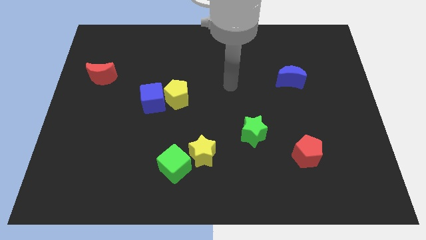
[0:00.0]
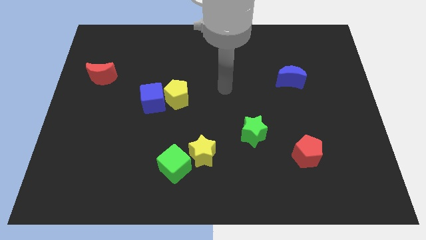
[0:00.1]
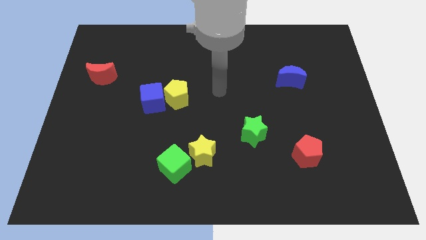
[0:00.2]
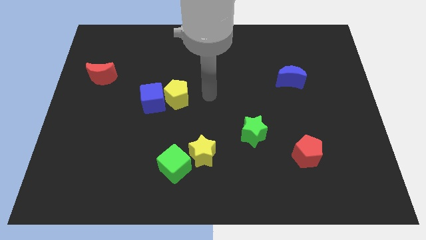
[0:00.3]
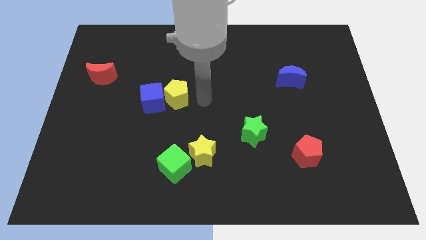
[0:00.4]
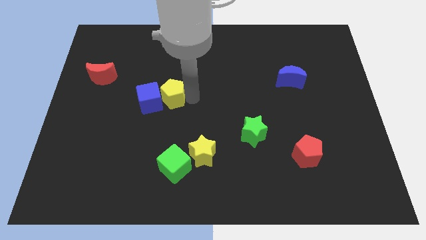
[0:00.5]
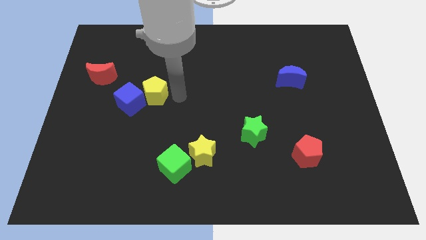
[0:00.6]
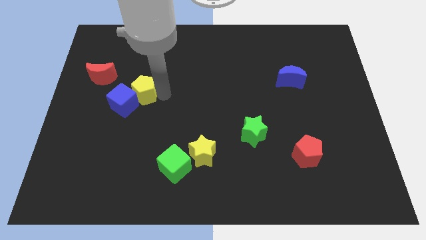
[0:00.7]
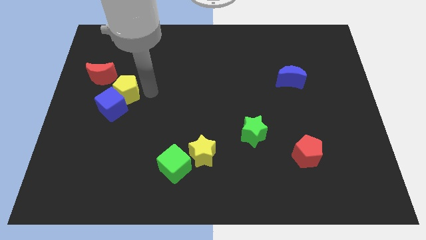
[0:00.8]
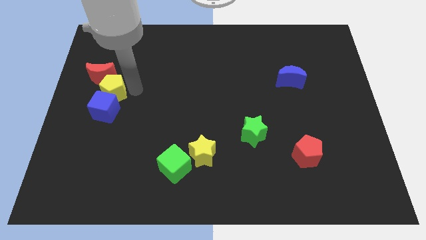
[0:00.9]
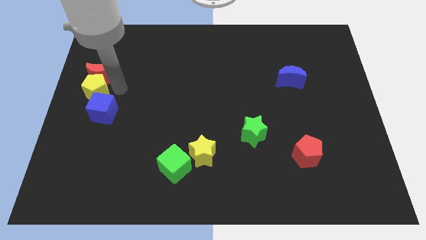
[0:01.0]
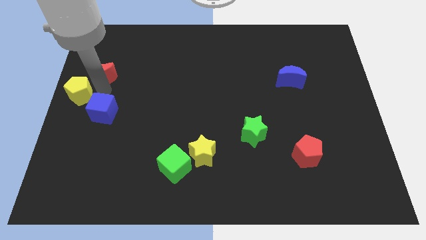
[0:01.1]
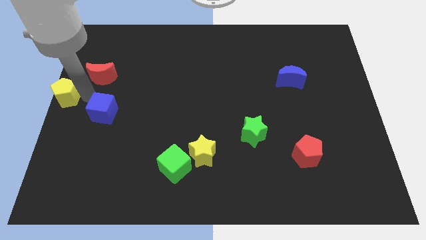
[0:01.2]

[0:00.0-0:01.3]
move the blue cube away from the yellow pentagon

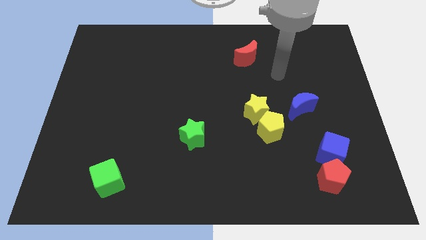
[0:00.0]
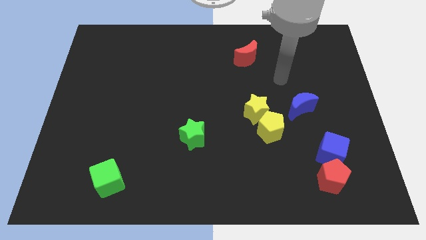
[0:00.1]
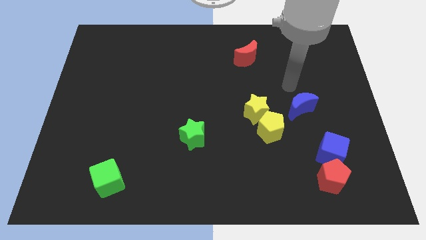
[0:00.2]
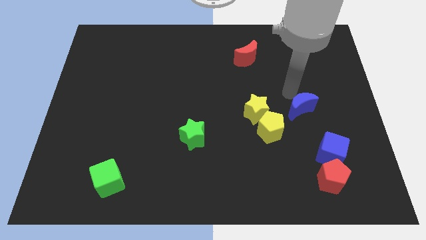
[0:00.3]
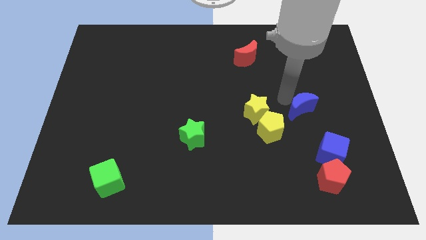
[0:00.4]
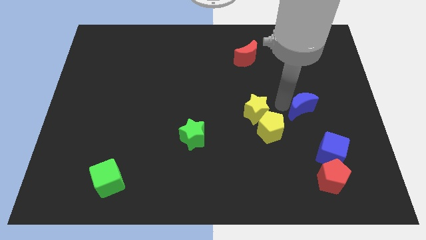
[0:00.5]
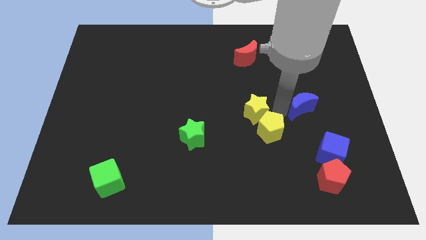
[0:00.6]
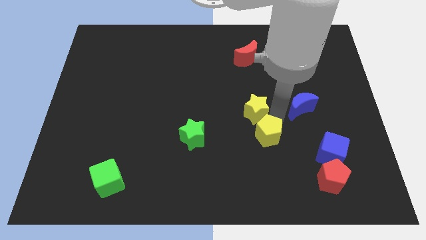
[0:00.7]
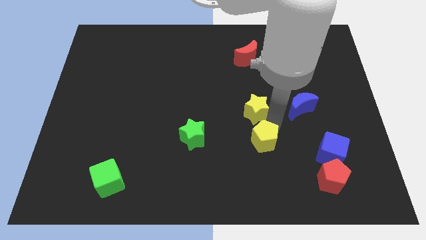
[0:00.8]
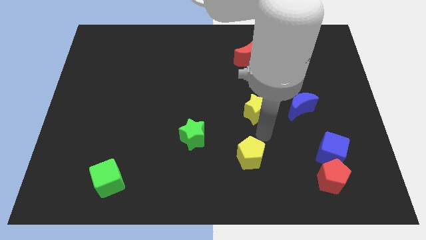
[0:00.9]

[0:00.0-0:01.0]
pull the yellow star apart from the yellow pentagon

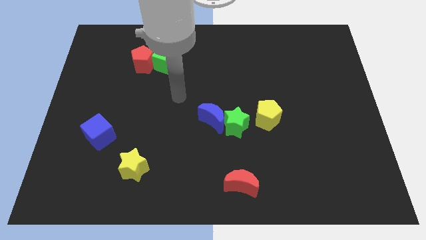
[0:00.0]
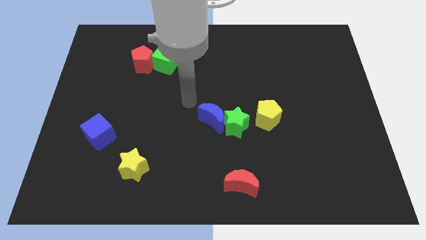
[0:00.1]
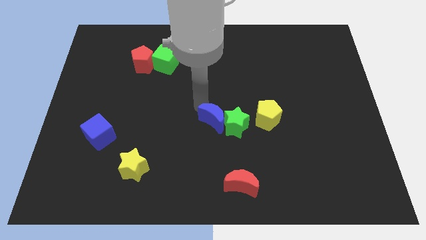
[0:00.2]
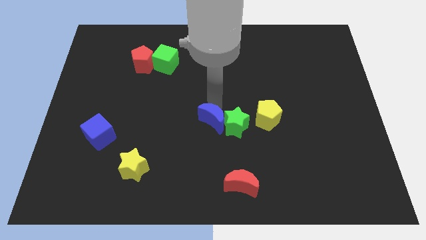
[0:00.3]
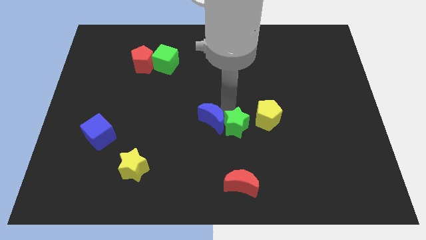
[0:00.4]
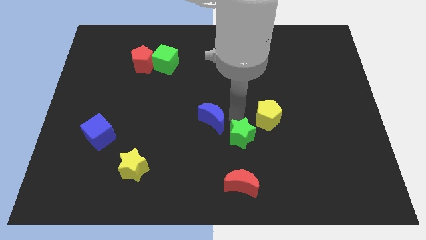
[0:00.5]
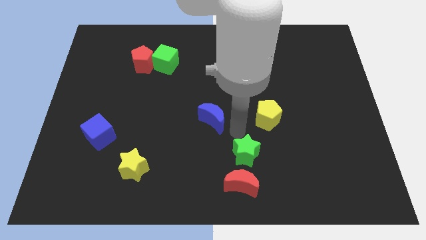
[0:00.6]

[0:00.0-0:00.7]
pull the blue moon apart from the green star

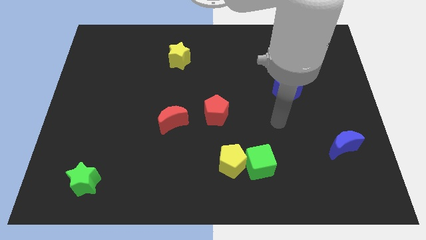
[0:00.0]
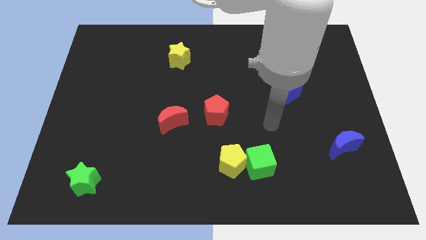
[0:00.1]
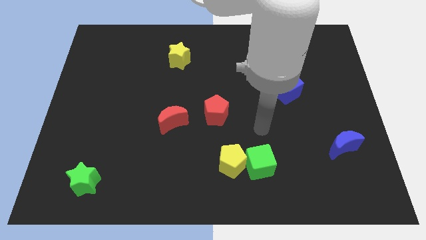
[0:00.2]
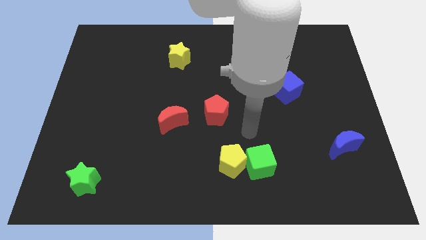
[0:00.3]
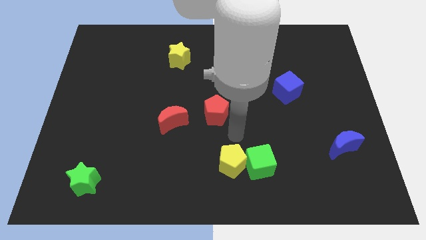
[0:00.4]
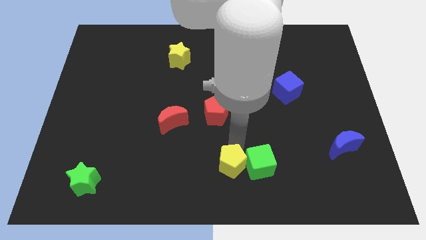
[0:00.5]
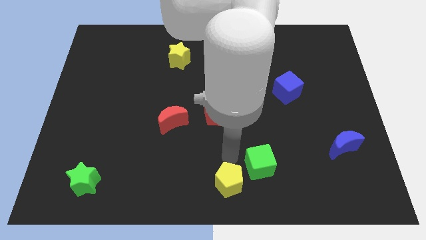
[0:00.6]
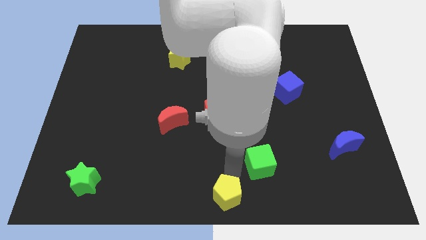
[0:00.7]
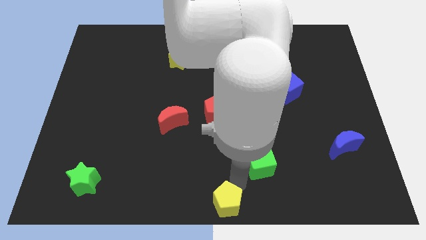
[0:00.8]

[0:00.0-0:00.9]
separate the green cube from the yellow pentagon

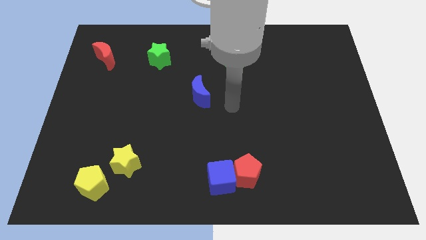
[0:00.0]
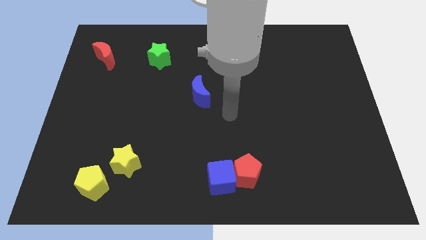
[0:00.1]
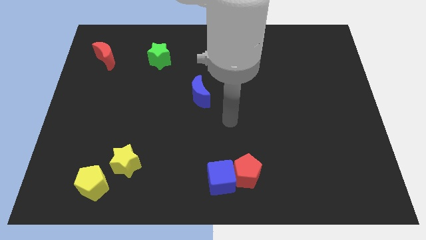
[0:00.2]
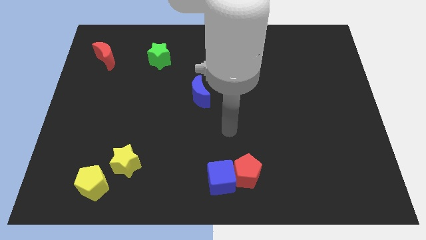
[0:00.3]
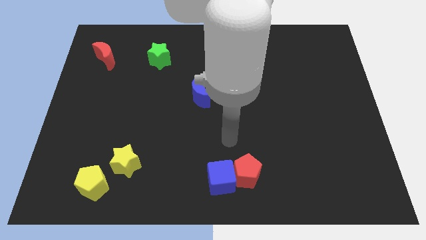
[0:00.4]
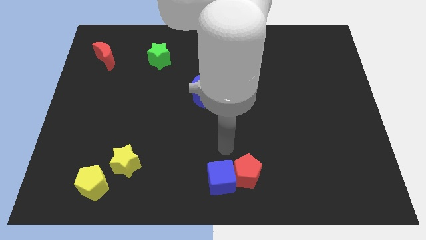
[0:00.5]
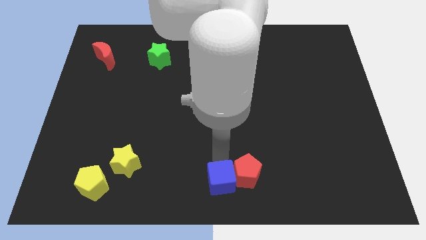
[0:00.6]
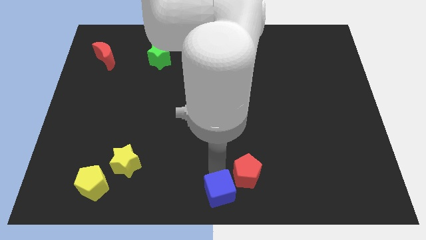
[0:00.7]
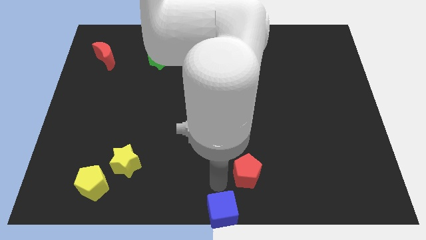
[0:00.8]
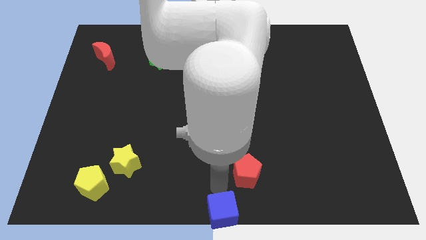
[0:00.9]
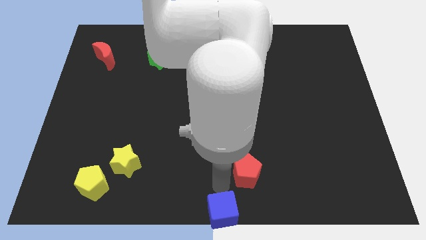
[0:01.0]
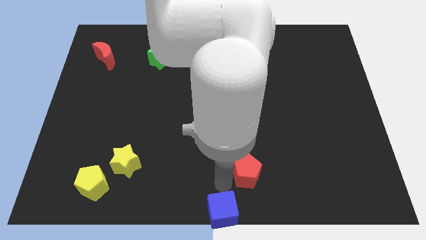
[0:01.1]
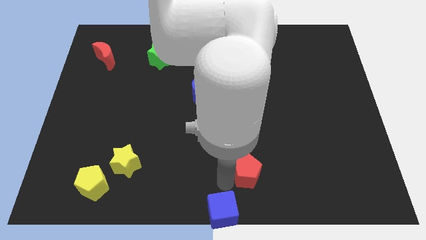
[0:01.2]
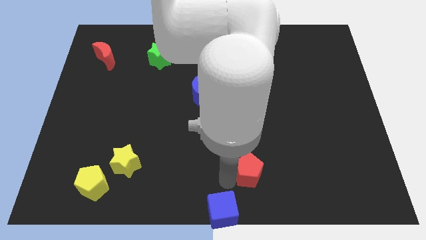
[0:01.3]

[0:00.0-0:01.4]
move the red pentagon away from the blue cube

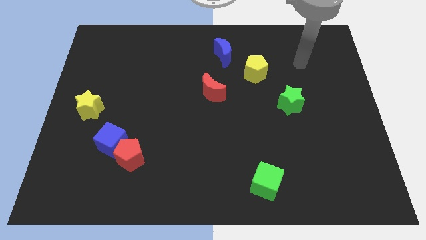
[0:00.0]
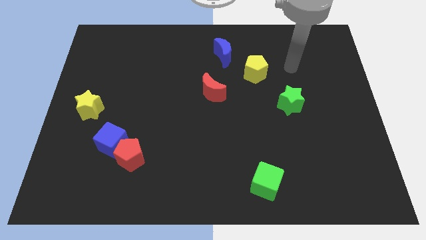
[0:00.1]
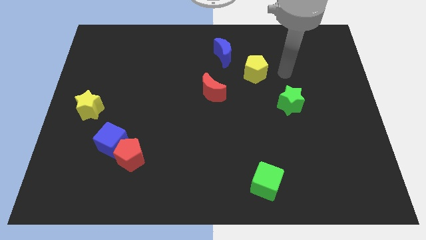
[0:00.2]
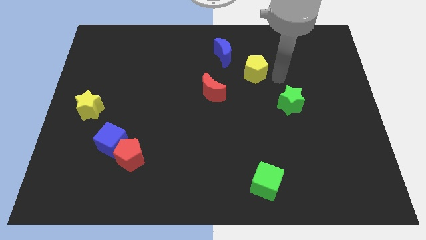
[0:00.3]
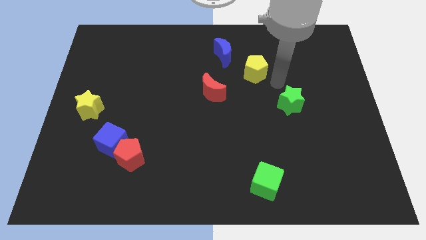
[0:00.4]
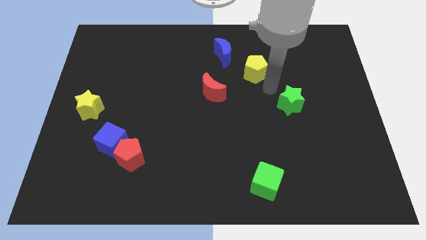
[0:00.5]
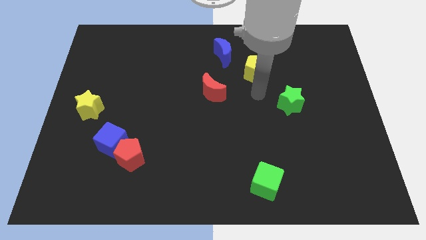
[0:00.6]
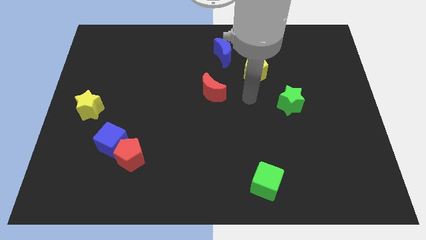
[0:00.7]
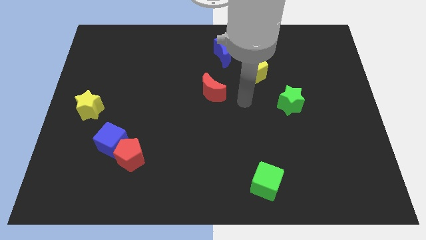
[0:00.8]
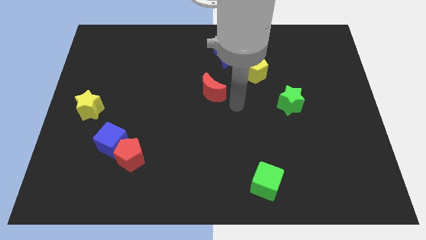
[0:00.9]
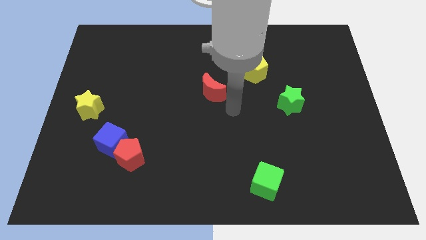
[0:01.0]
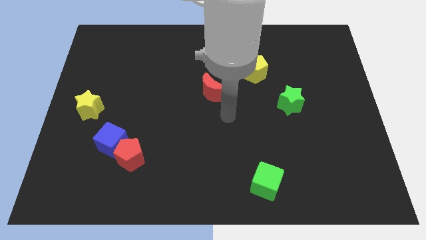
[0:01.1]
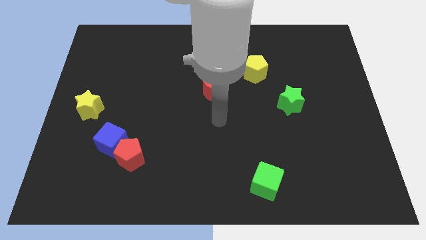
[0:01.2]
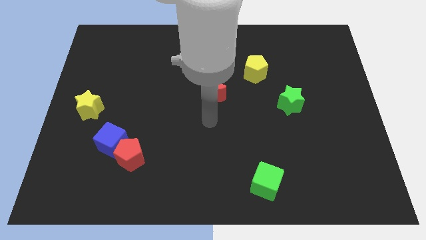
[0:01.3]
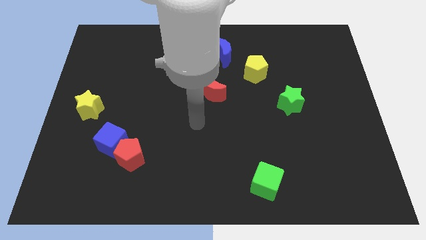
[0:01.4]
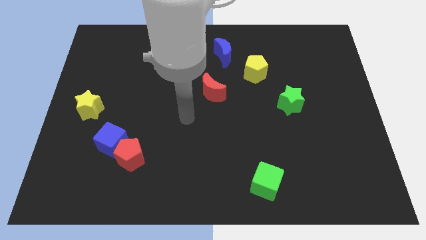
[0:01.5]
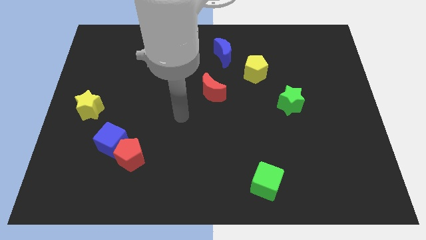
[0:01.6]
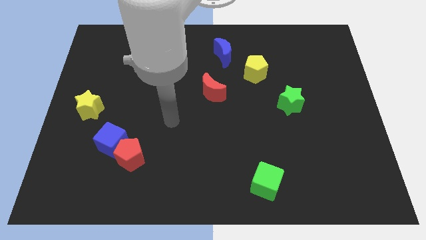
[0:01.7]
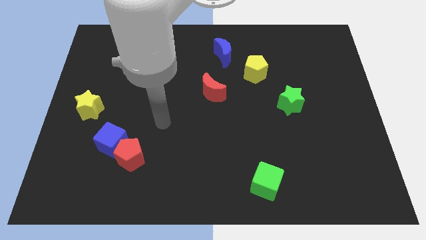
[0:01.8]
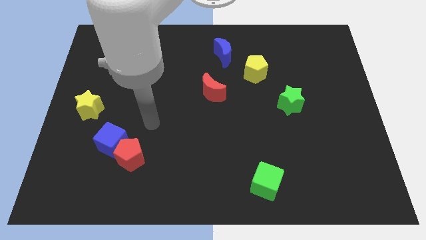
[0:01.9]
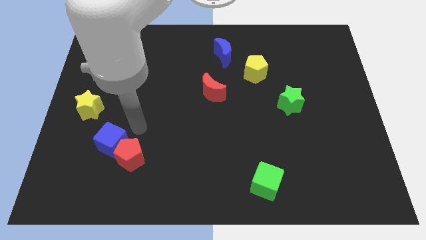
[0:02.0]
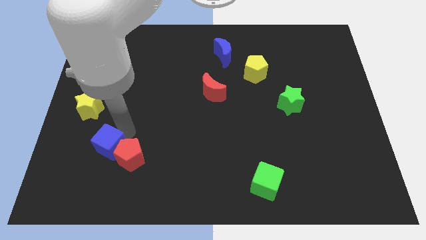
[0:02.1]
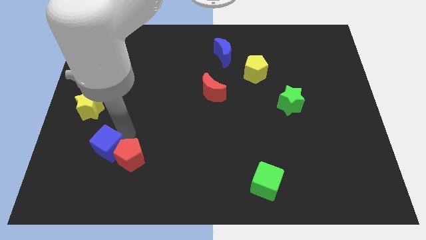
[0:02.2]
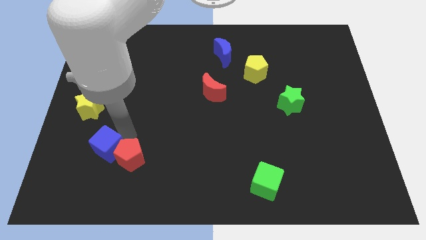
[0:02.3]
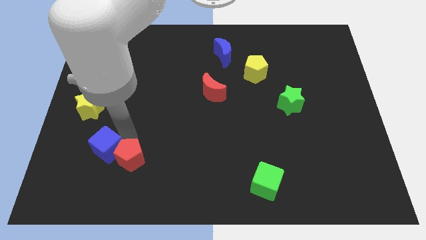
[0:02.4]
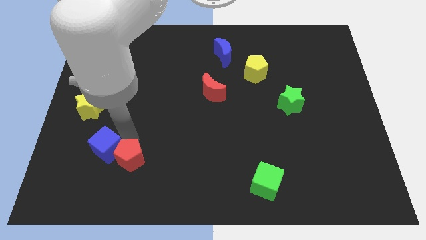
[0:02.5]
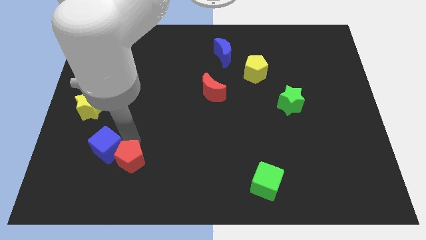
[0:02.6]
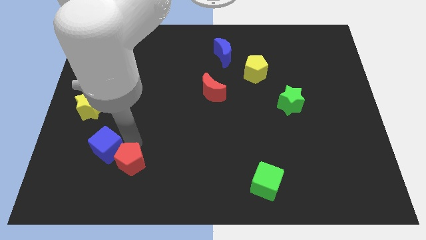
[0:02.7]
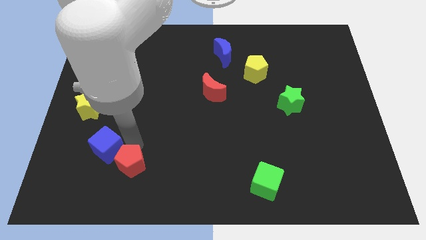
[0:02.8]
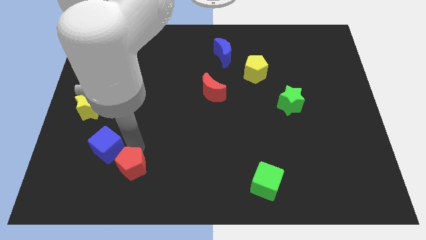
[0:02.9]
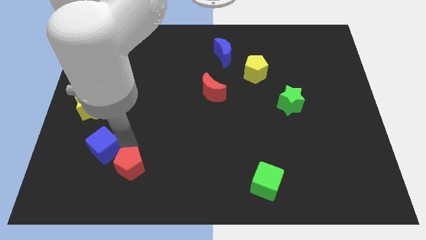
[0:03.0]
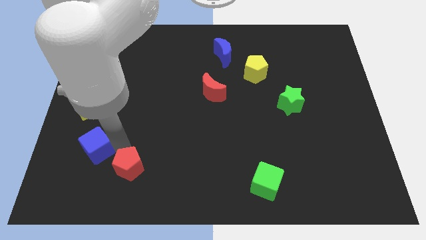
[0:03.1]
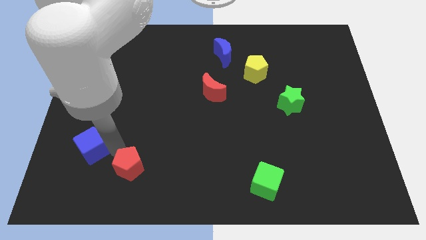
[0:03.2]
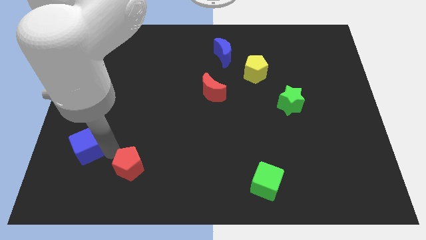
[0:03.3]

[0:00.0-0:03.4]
separate the red pentagon from the blue cube

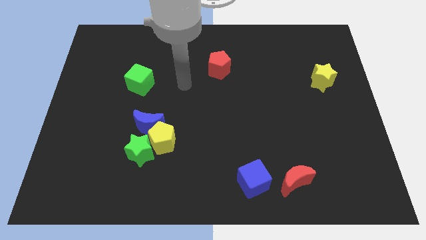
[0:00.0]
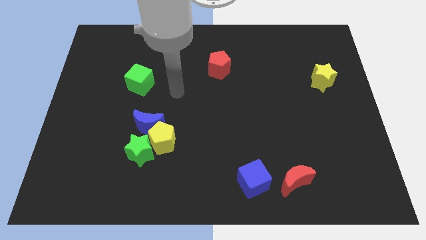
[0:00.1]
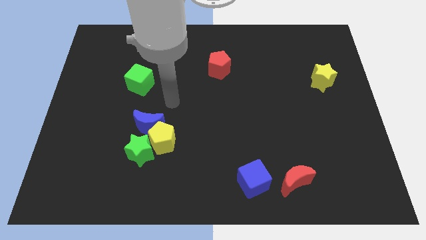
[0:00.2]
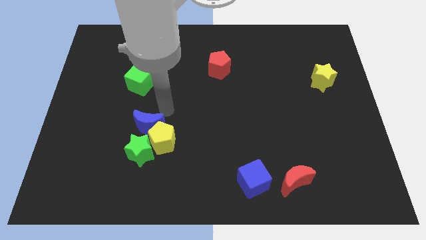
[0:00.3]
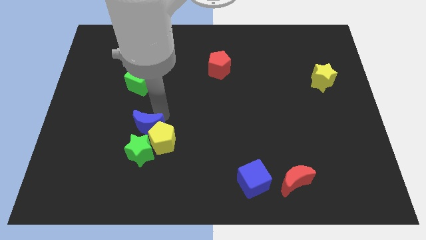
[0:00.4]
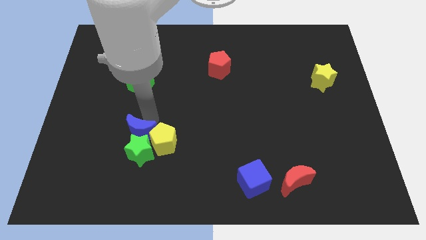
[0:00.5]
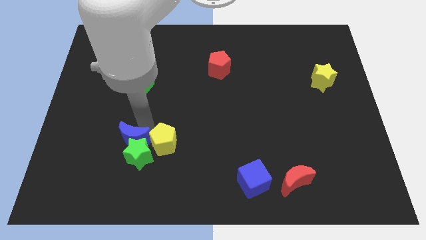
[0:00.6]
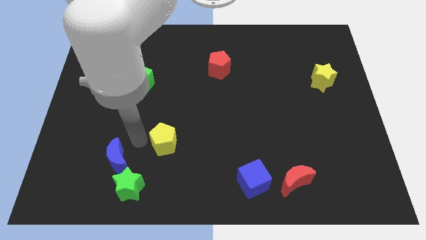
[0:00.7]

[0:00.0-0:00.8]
pull the yellow pentagon apart from the green star and blue moon
